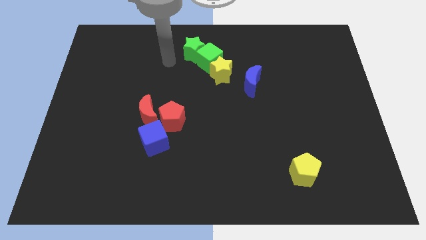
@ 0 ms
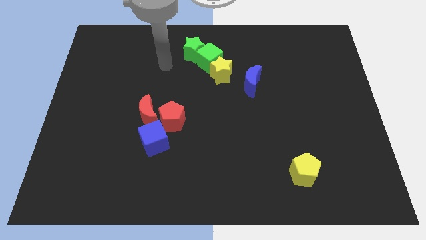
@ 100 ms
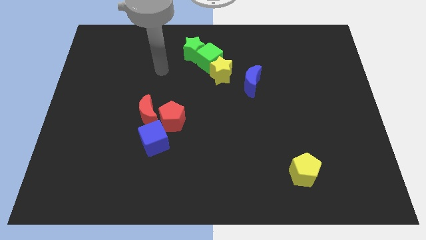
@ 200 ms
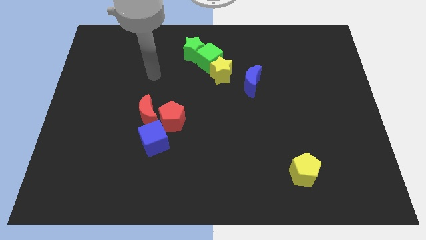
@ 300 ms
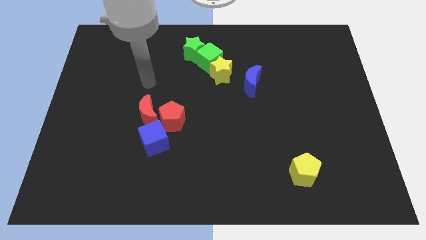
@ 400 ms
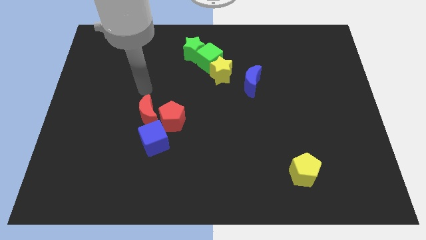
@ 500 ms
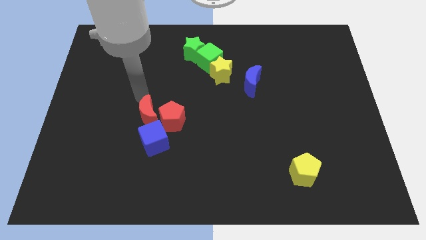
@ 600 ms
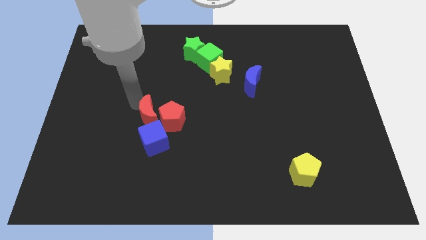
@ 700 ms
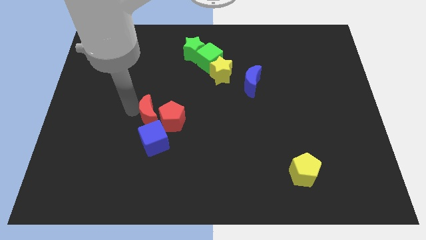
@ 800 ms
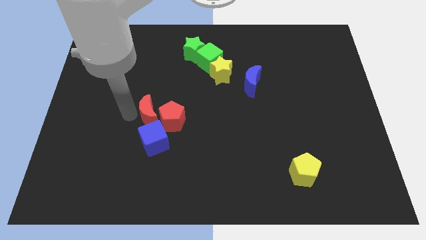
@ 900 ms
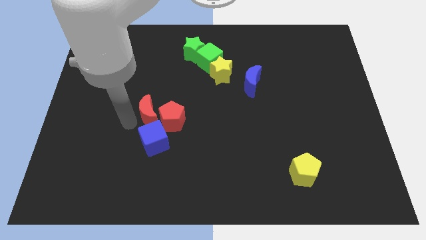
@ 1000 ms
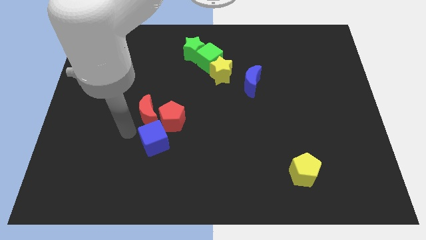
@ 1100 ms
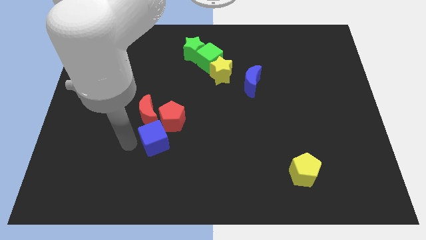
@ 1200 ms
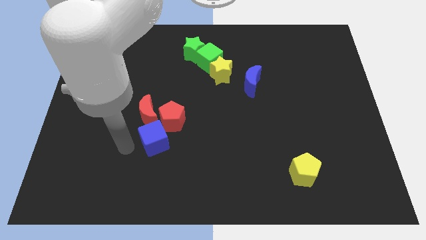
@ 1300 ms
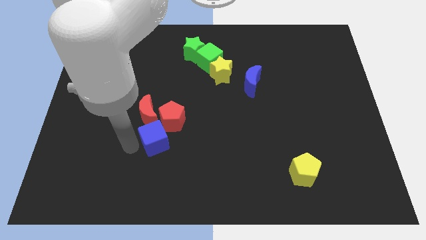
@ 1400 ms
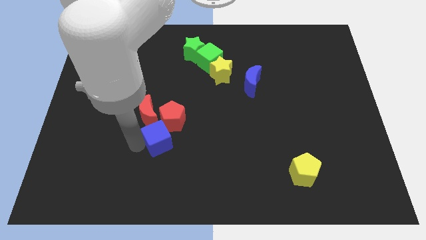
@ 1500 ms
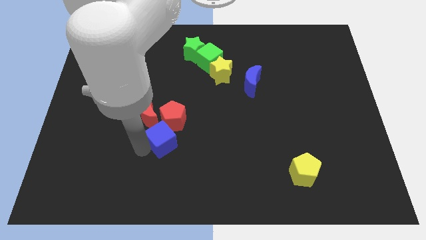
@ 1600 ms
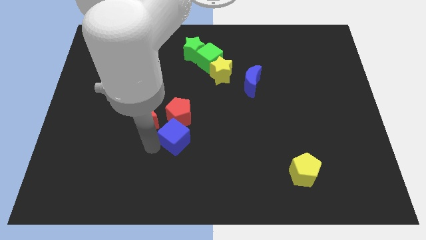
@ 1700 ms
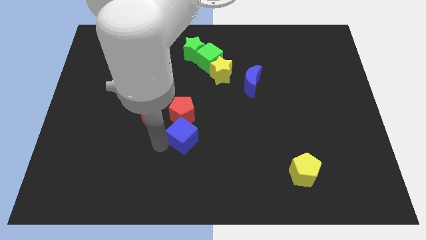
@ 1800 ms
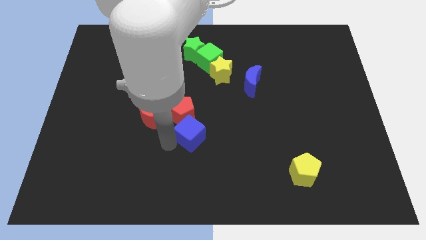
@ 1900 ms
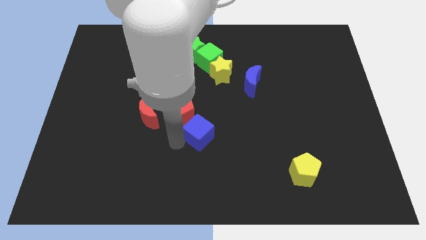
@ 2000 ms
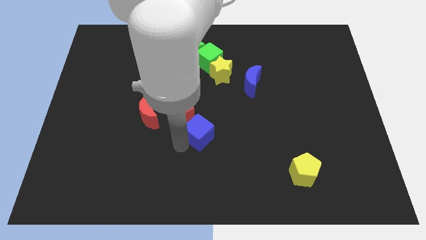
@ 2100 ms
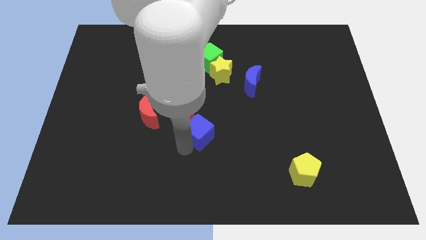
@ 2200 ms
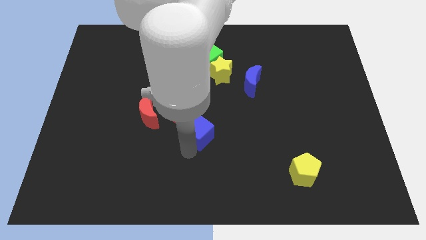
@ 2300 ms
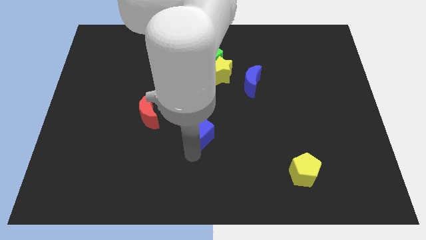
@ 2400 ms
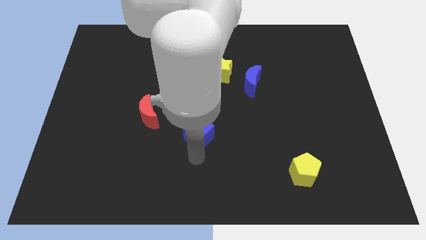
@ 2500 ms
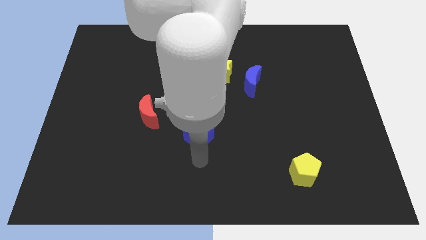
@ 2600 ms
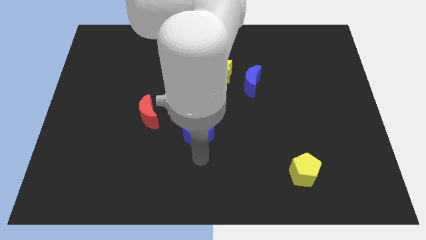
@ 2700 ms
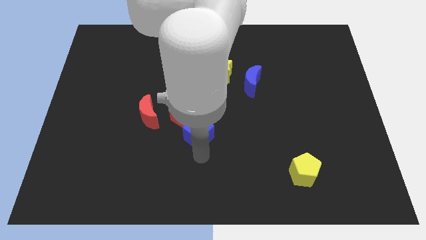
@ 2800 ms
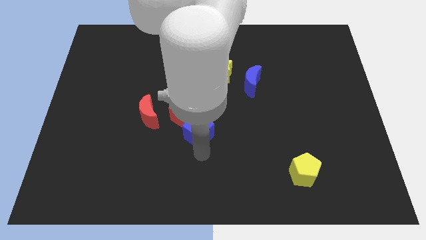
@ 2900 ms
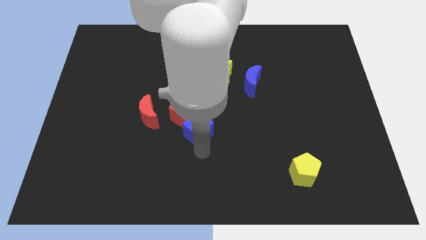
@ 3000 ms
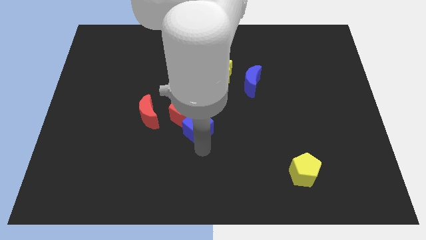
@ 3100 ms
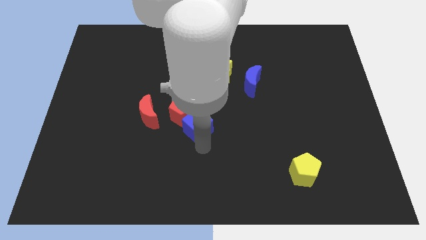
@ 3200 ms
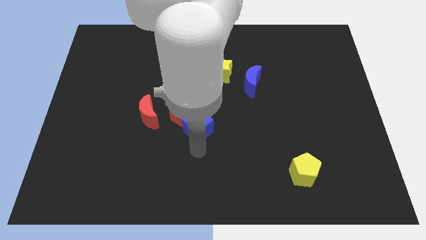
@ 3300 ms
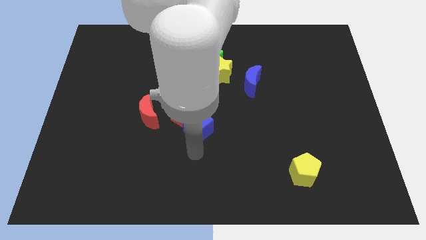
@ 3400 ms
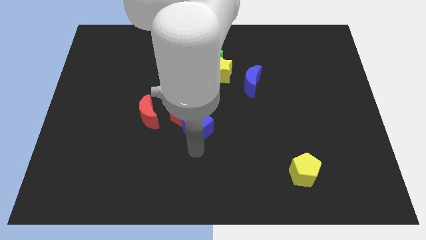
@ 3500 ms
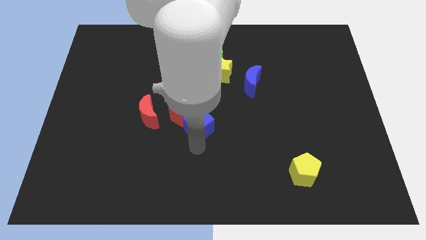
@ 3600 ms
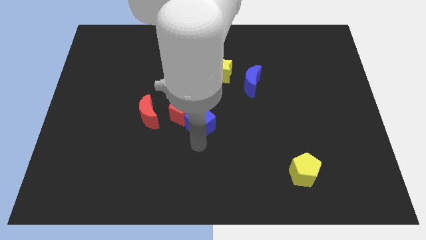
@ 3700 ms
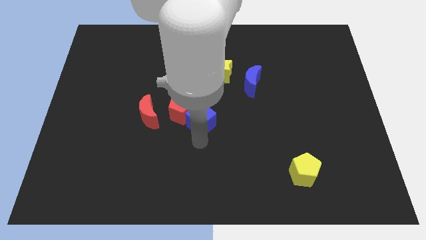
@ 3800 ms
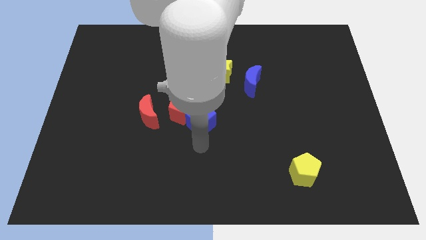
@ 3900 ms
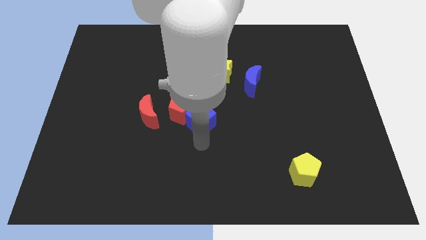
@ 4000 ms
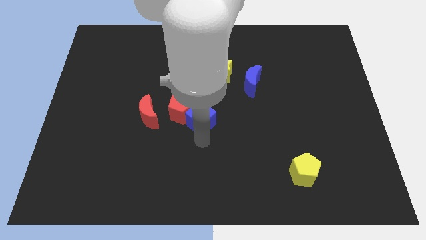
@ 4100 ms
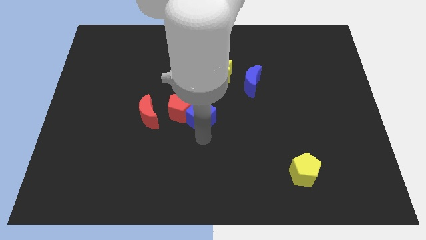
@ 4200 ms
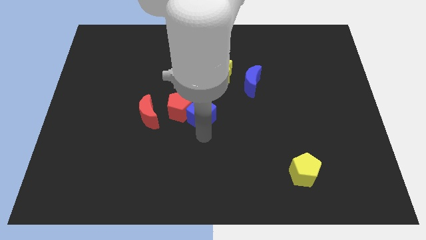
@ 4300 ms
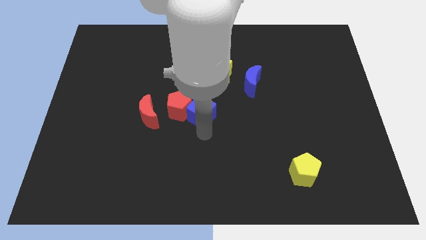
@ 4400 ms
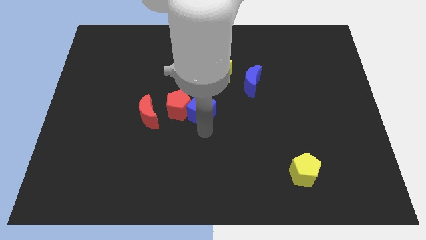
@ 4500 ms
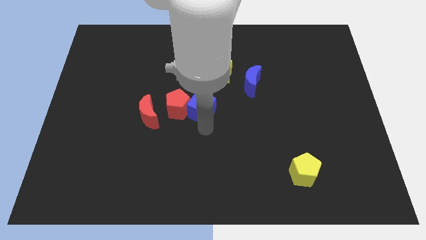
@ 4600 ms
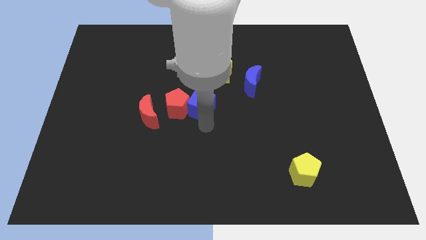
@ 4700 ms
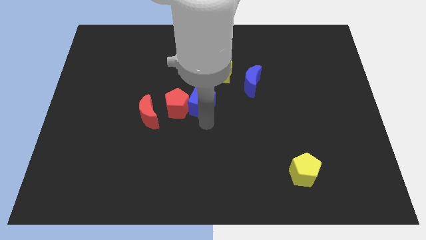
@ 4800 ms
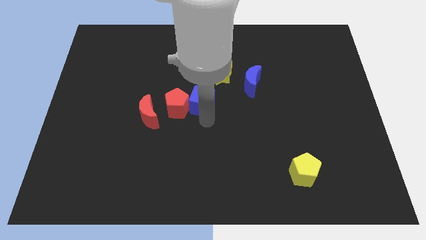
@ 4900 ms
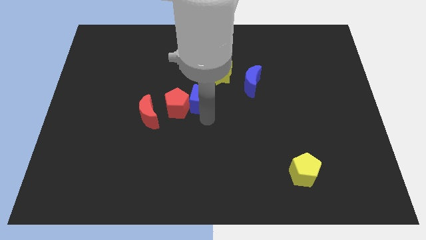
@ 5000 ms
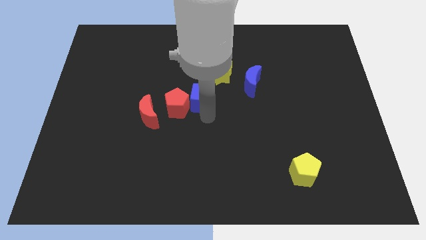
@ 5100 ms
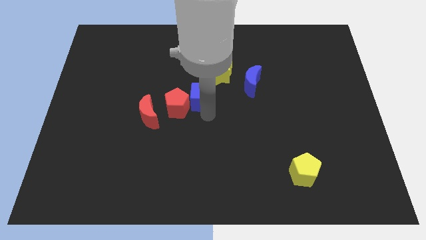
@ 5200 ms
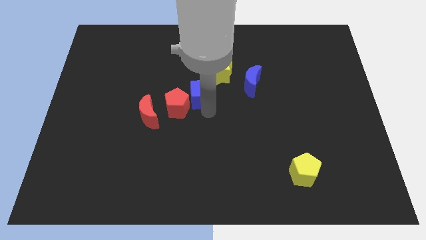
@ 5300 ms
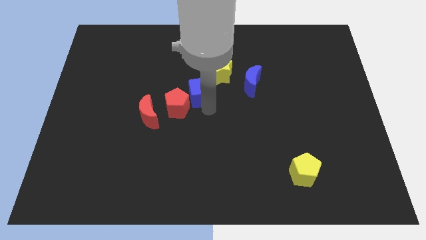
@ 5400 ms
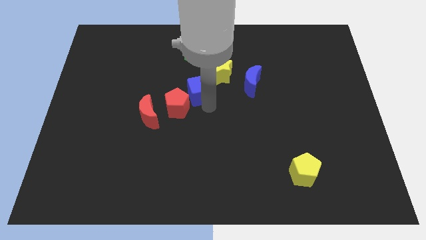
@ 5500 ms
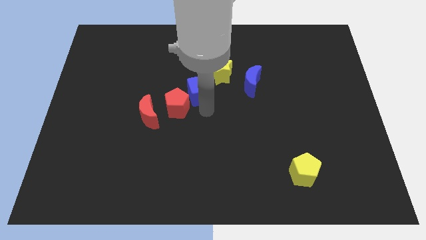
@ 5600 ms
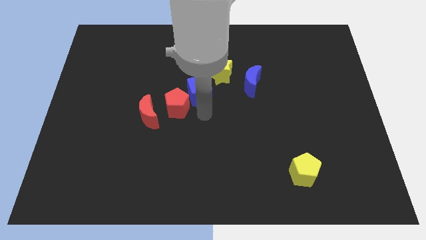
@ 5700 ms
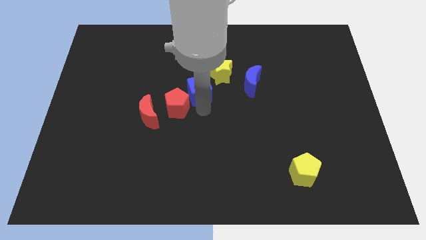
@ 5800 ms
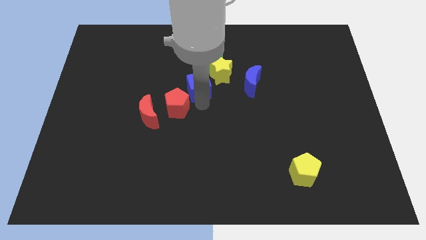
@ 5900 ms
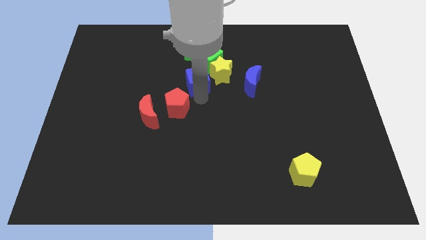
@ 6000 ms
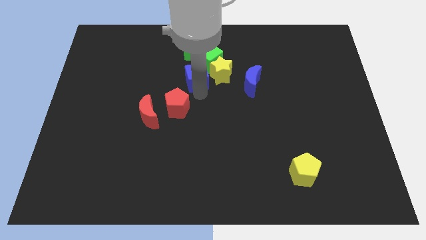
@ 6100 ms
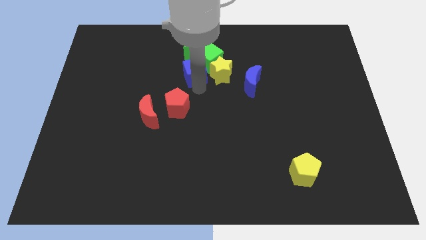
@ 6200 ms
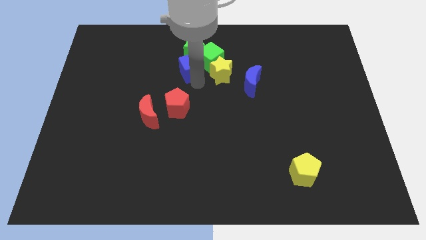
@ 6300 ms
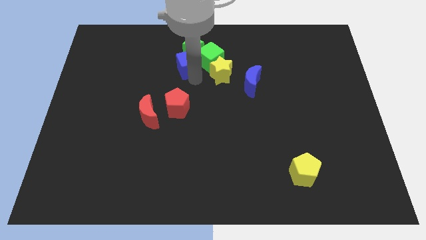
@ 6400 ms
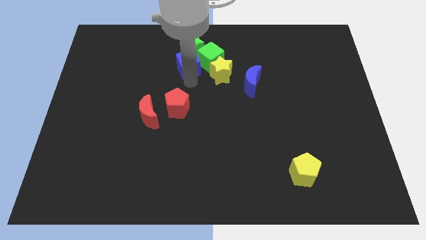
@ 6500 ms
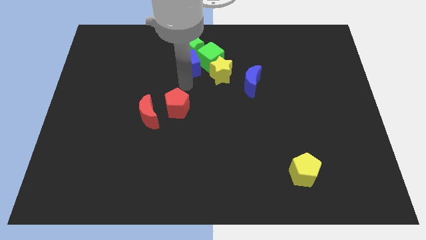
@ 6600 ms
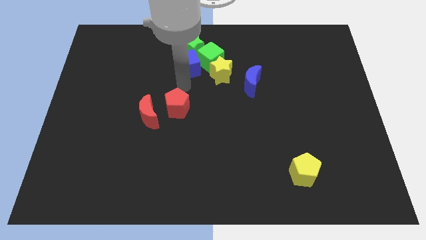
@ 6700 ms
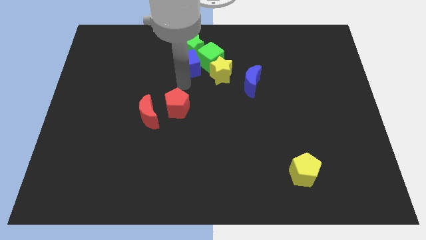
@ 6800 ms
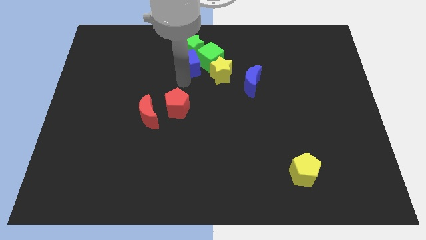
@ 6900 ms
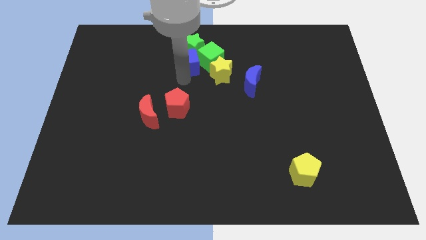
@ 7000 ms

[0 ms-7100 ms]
slide the blue cube next to the green star
